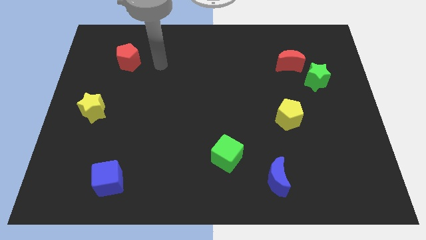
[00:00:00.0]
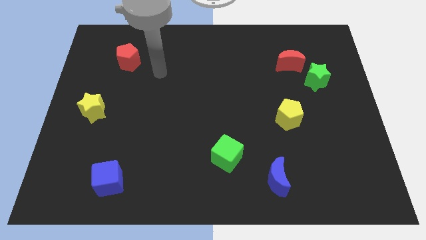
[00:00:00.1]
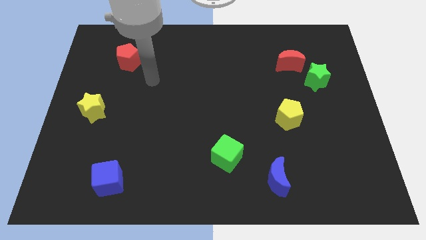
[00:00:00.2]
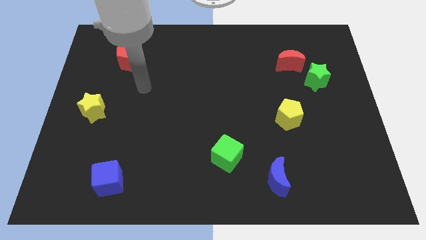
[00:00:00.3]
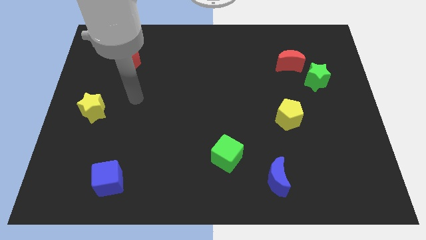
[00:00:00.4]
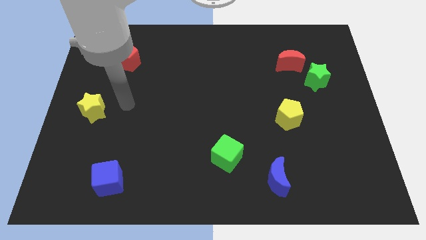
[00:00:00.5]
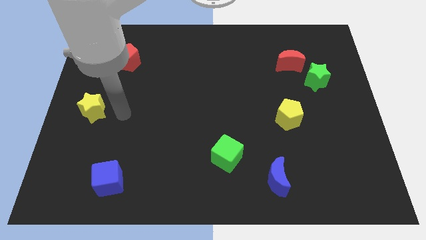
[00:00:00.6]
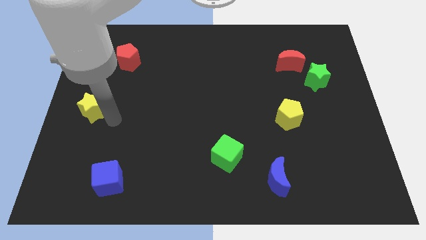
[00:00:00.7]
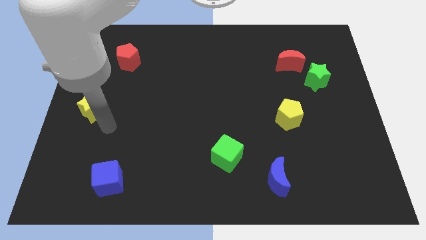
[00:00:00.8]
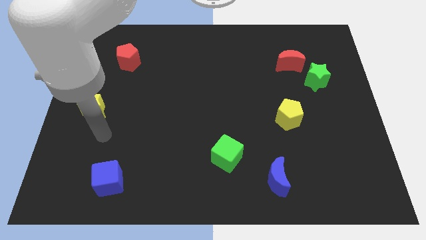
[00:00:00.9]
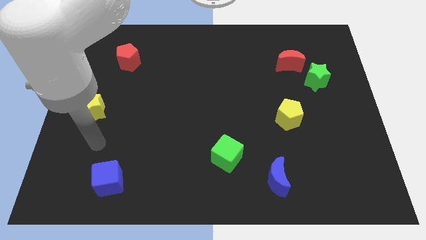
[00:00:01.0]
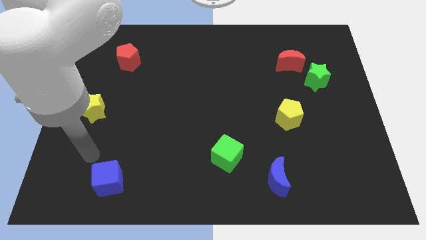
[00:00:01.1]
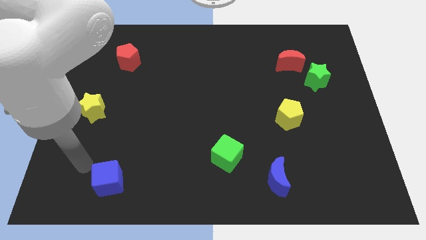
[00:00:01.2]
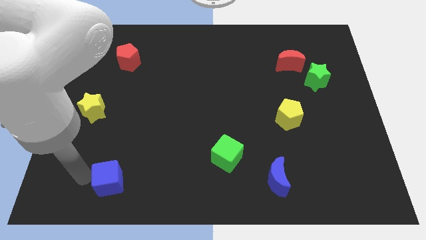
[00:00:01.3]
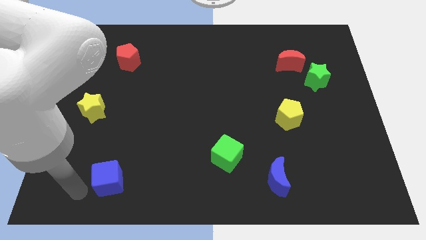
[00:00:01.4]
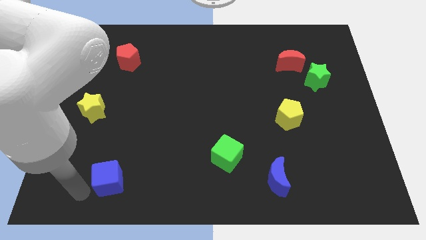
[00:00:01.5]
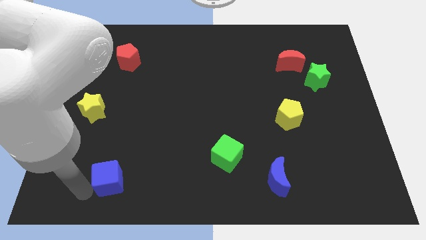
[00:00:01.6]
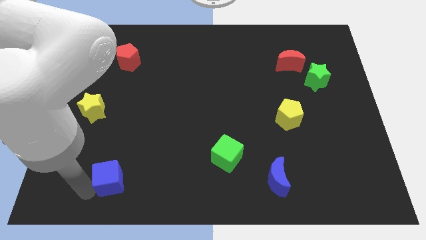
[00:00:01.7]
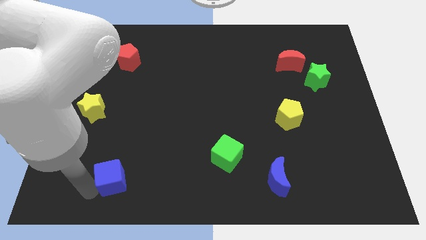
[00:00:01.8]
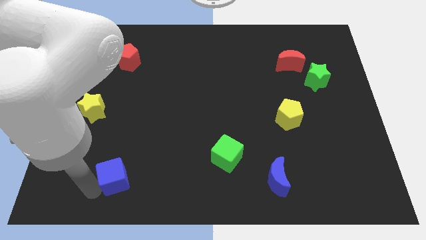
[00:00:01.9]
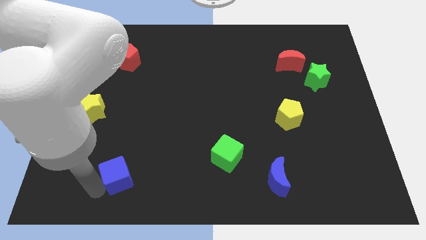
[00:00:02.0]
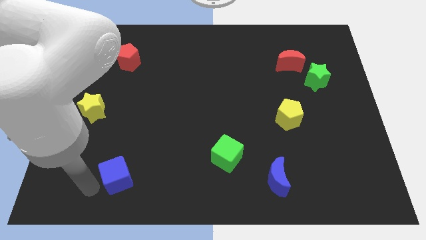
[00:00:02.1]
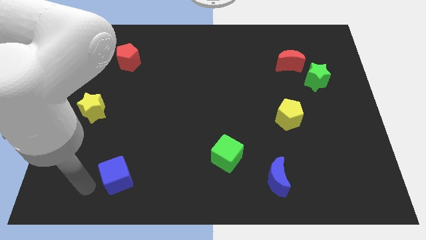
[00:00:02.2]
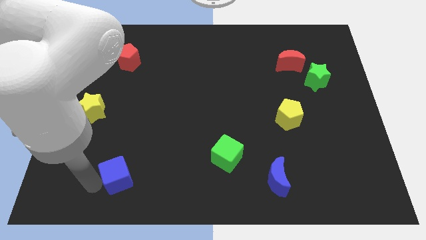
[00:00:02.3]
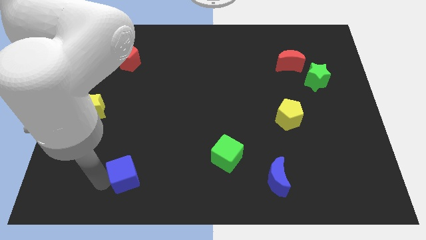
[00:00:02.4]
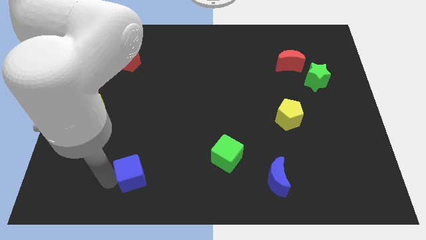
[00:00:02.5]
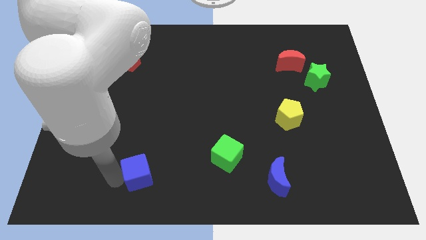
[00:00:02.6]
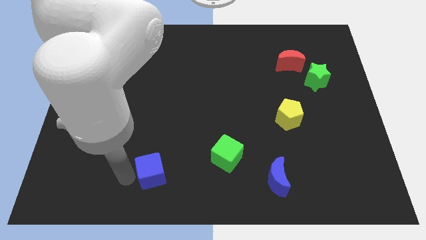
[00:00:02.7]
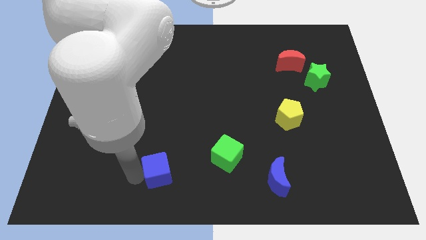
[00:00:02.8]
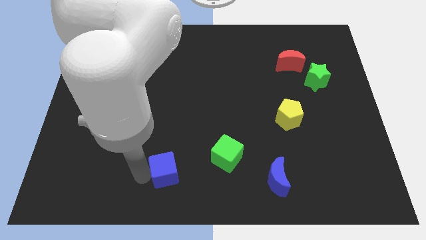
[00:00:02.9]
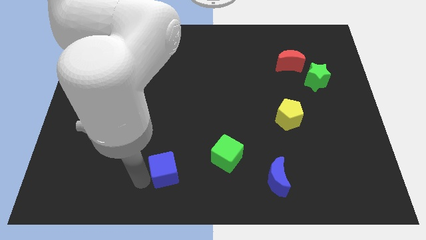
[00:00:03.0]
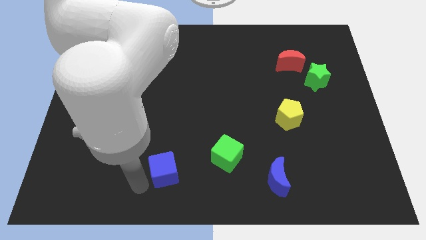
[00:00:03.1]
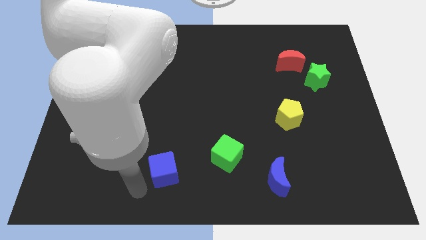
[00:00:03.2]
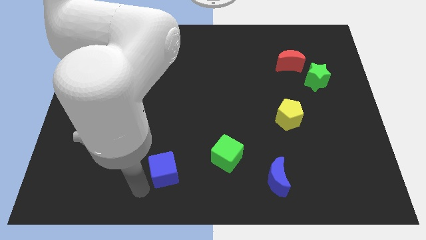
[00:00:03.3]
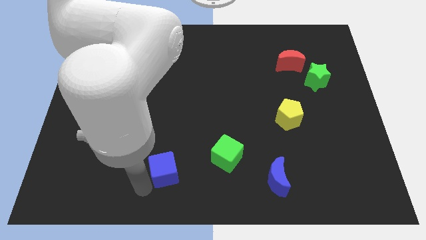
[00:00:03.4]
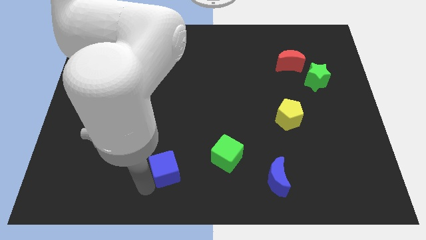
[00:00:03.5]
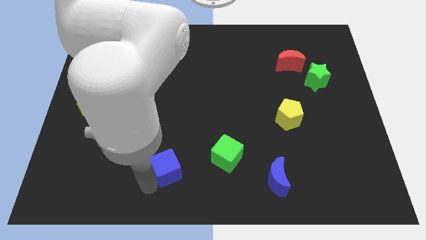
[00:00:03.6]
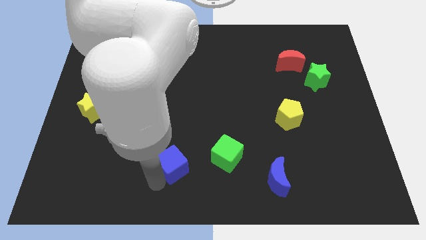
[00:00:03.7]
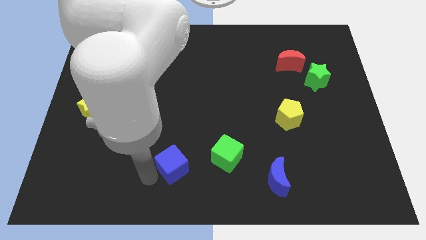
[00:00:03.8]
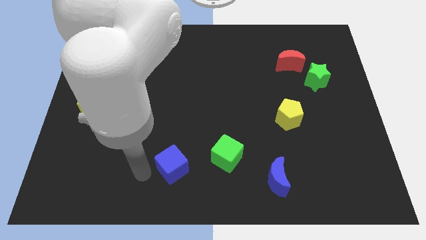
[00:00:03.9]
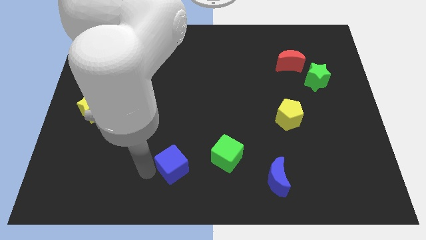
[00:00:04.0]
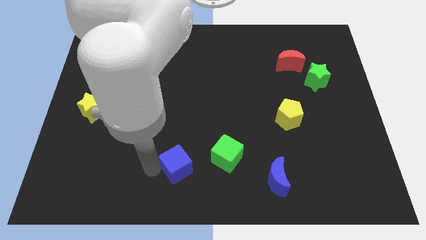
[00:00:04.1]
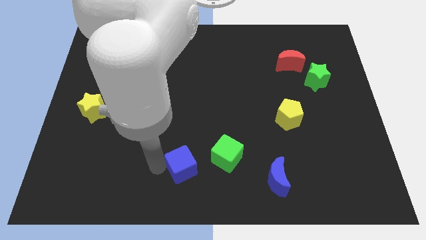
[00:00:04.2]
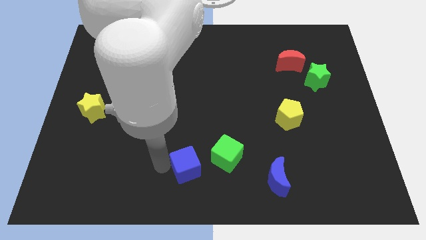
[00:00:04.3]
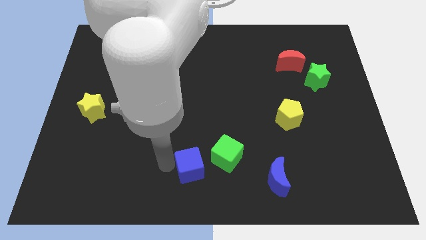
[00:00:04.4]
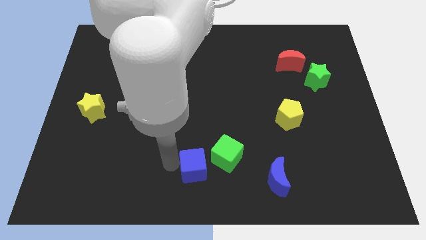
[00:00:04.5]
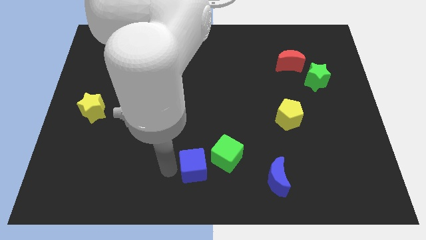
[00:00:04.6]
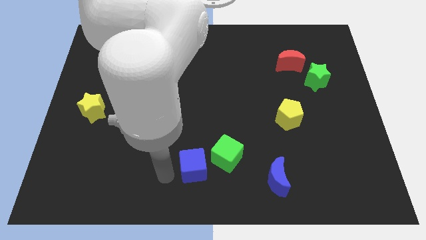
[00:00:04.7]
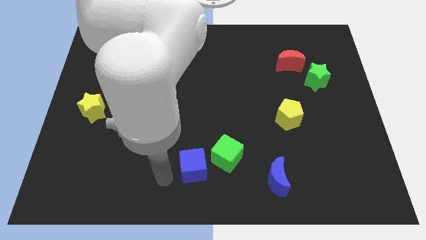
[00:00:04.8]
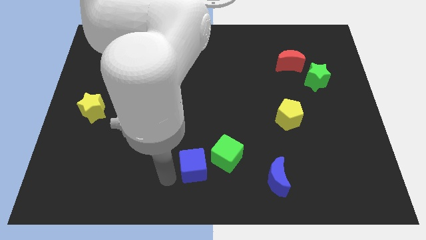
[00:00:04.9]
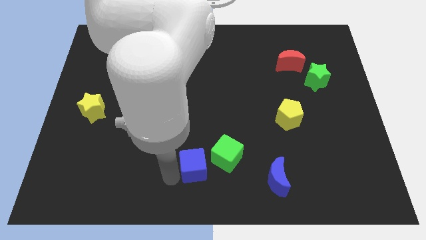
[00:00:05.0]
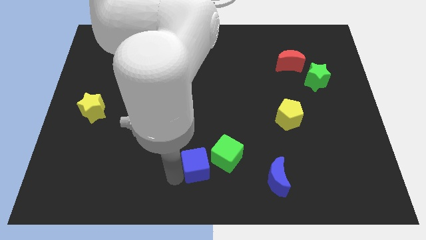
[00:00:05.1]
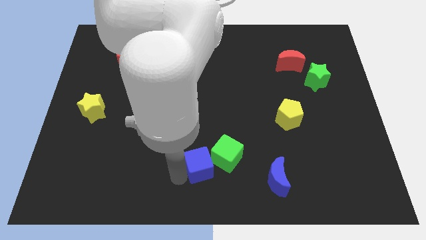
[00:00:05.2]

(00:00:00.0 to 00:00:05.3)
put the blue cube close to the green cube

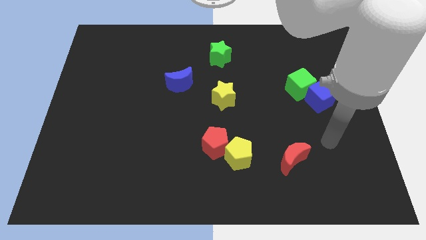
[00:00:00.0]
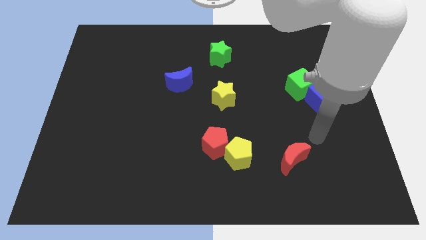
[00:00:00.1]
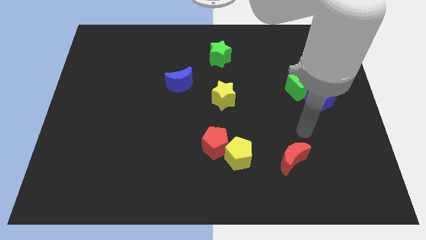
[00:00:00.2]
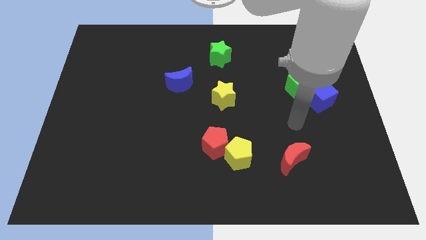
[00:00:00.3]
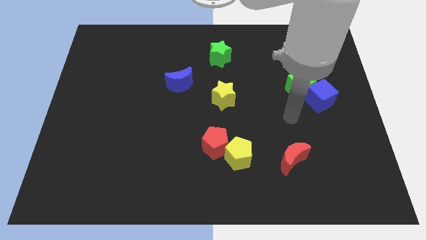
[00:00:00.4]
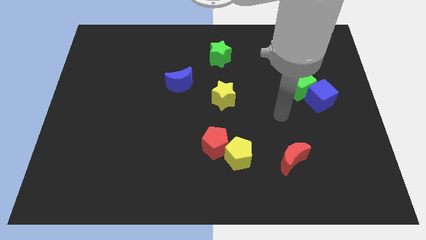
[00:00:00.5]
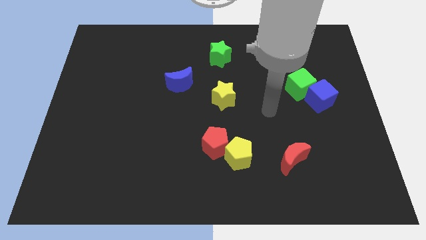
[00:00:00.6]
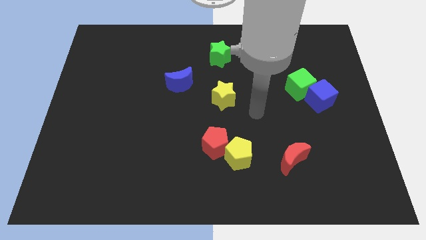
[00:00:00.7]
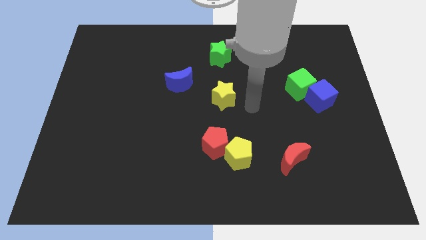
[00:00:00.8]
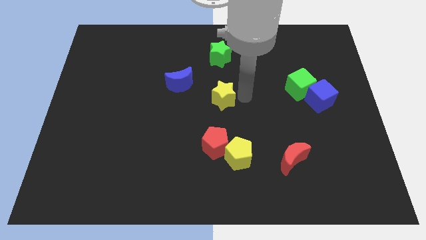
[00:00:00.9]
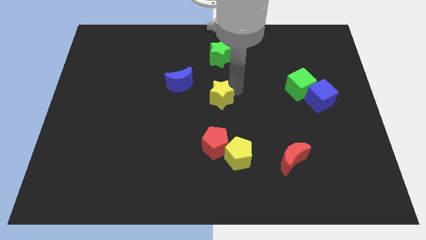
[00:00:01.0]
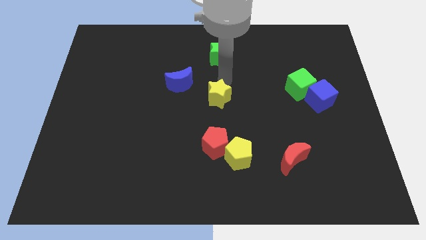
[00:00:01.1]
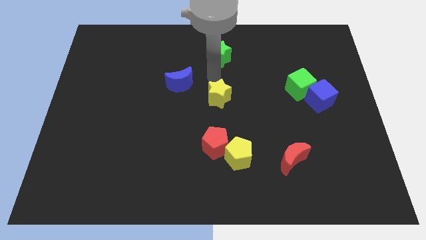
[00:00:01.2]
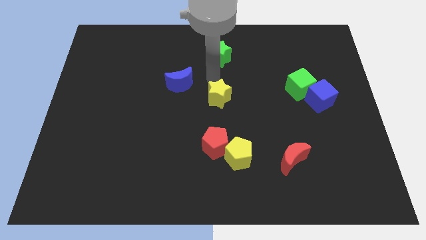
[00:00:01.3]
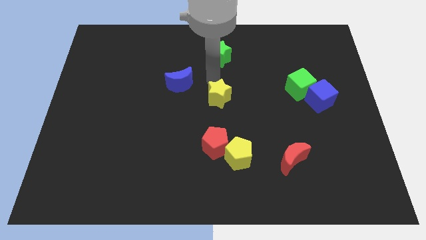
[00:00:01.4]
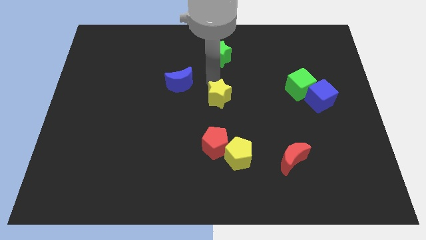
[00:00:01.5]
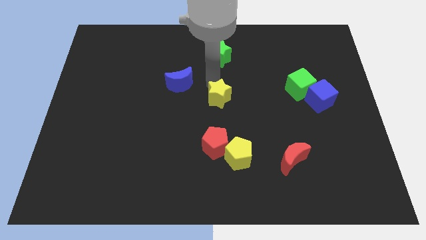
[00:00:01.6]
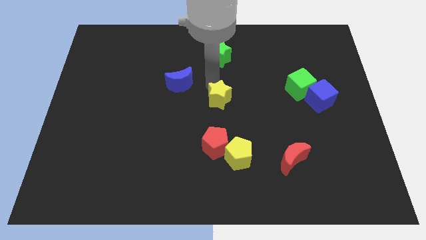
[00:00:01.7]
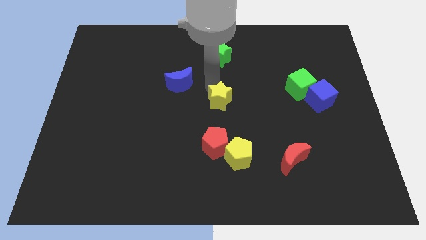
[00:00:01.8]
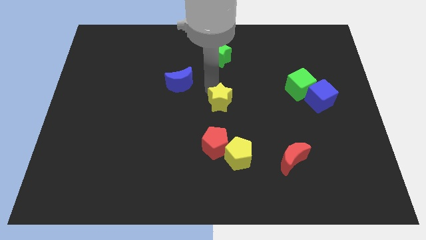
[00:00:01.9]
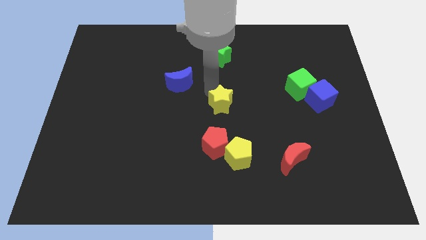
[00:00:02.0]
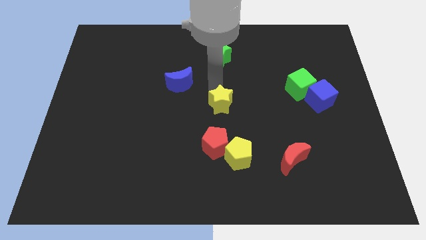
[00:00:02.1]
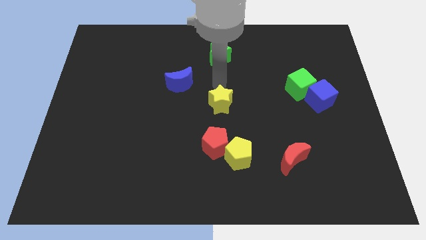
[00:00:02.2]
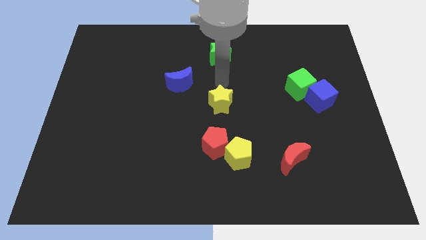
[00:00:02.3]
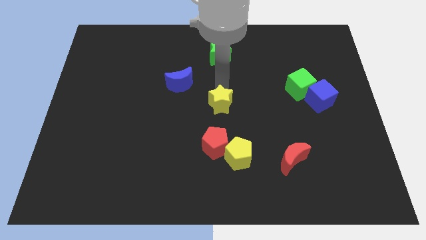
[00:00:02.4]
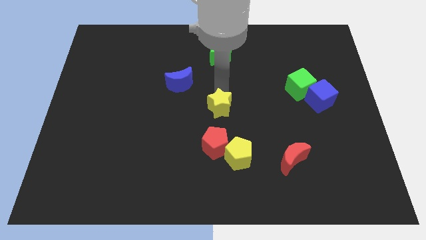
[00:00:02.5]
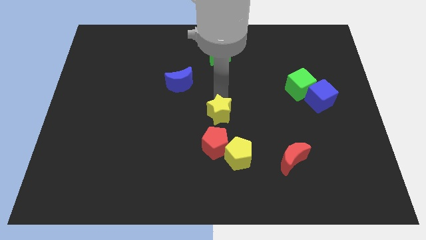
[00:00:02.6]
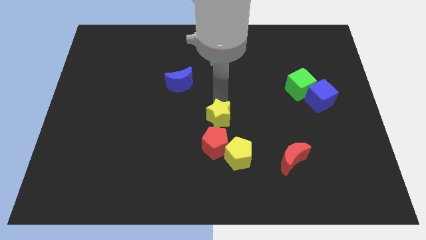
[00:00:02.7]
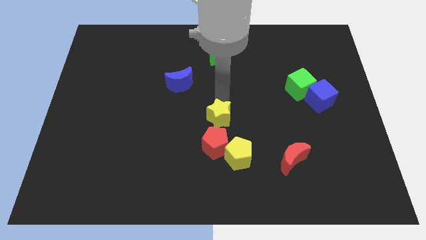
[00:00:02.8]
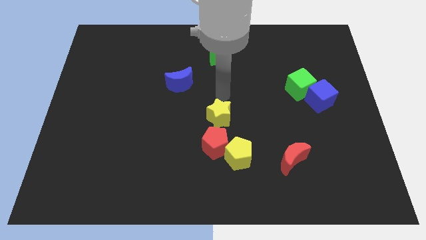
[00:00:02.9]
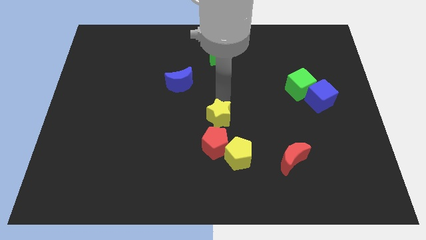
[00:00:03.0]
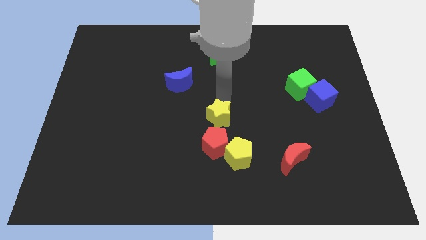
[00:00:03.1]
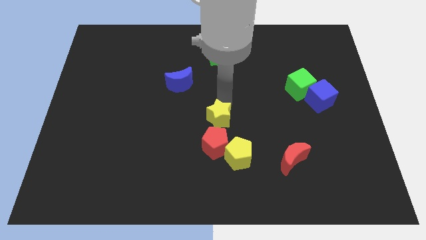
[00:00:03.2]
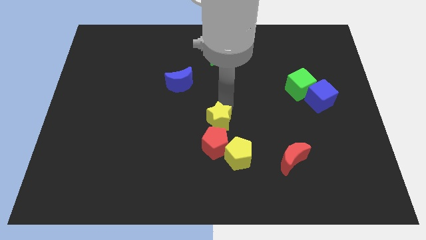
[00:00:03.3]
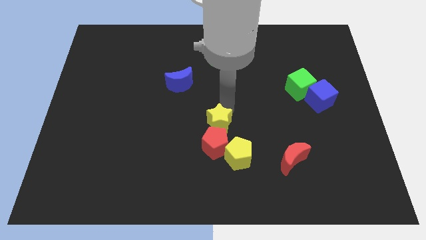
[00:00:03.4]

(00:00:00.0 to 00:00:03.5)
move the yellow star towards the red pentagon
